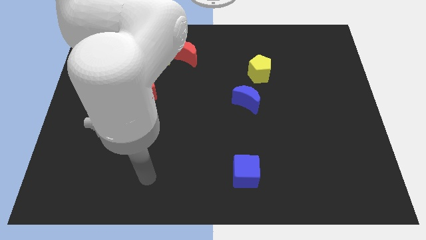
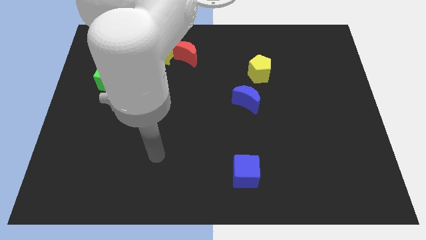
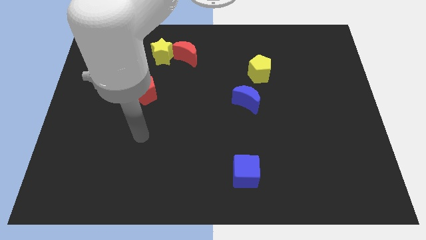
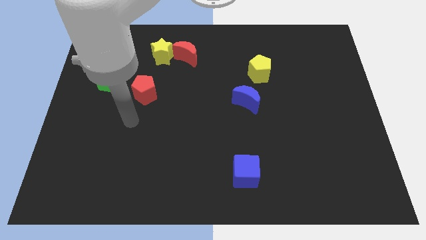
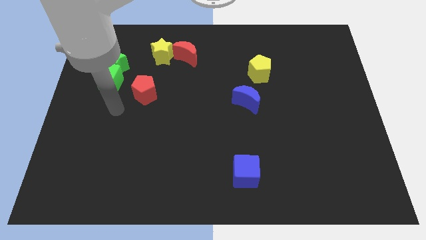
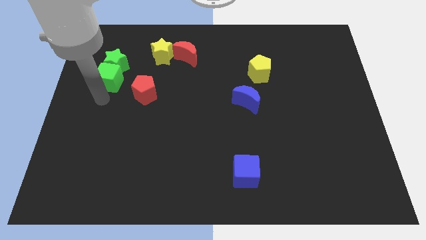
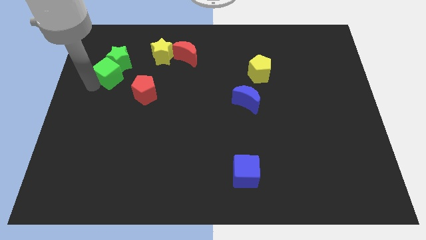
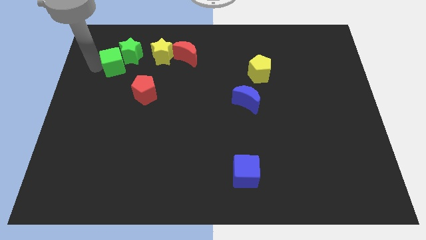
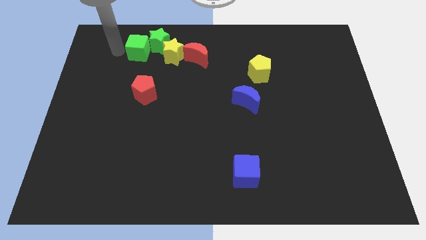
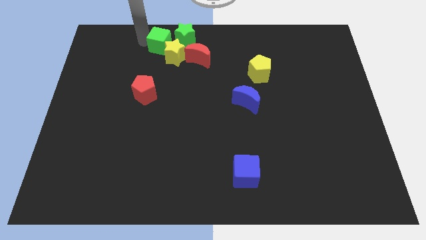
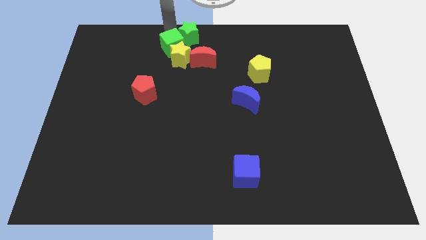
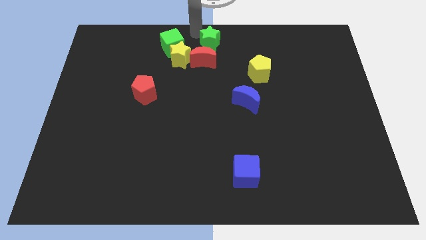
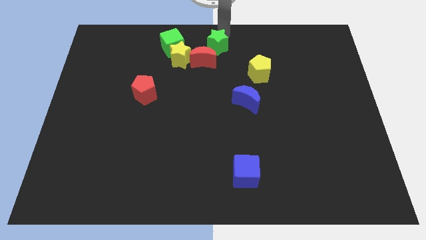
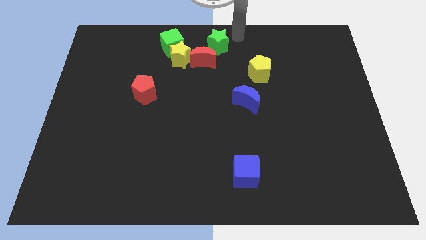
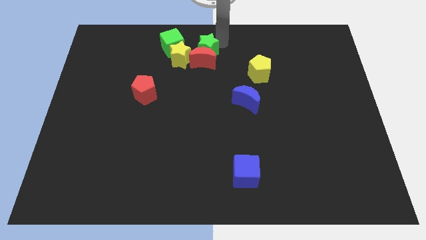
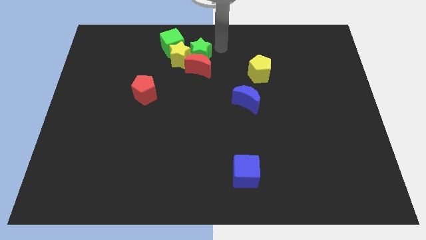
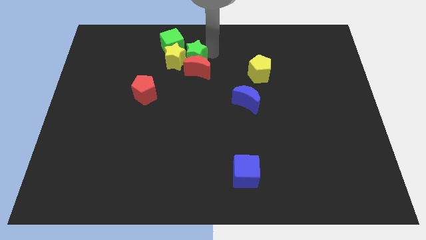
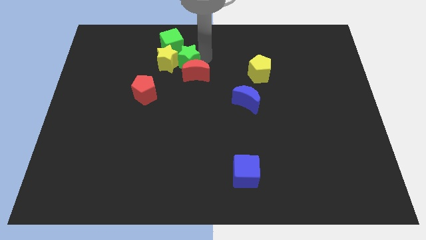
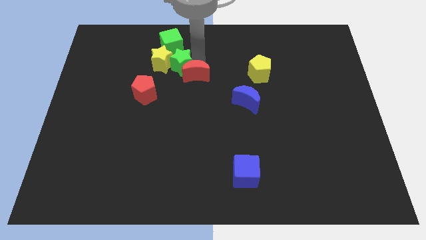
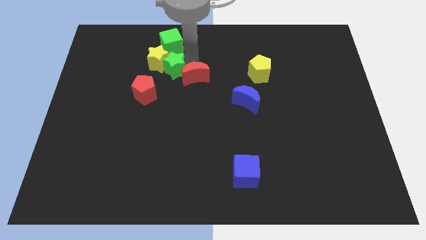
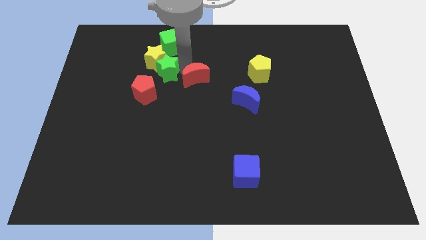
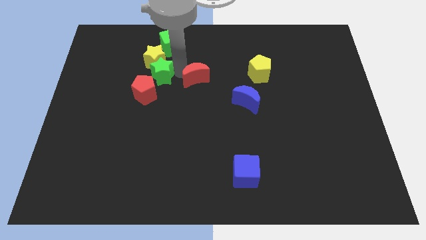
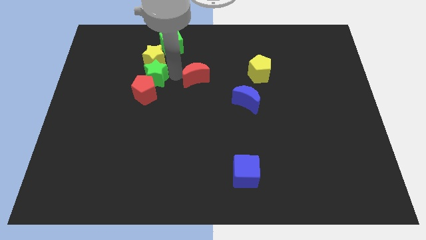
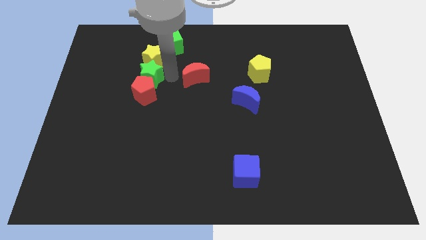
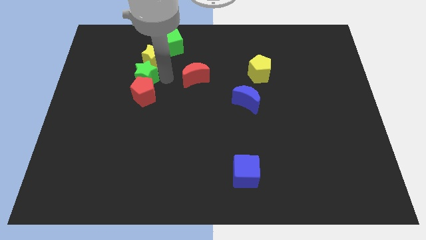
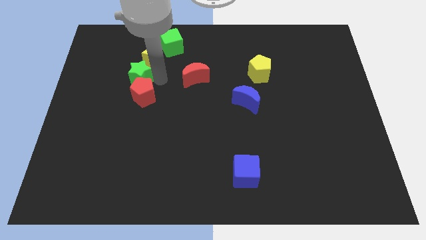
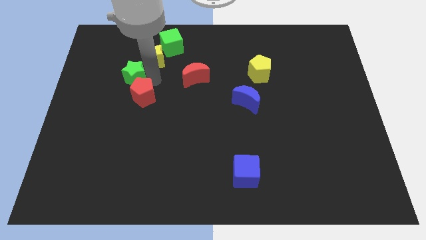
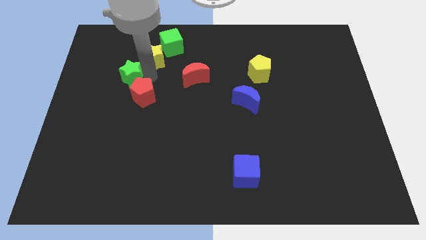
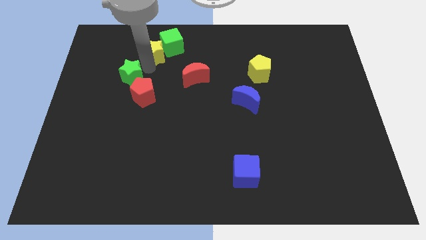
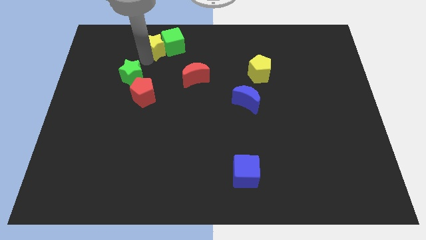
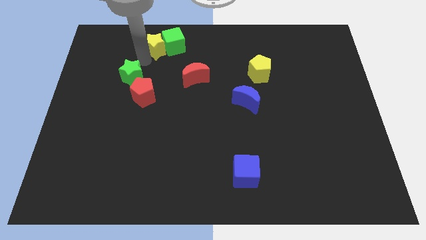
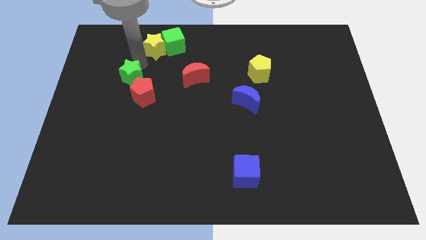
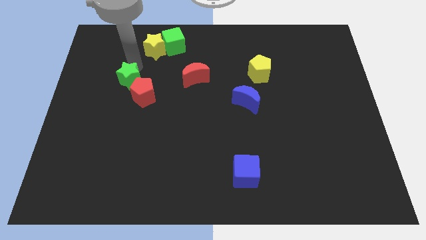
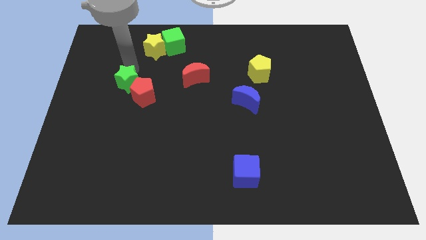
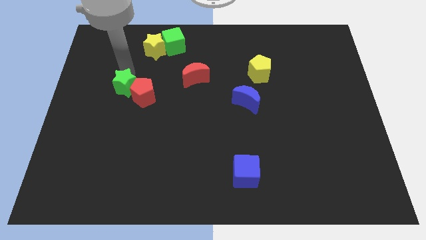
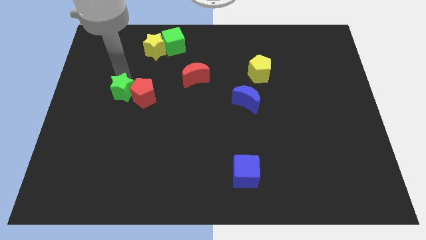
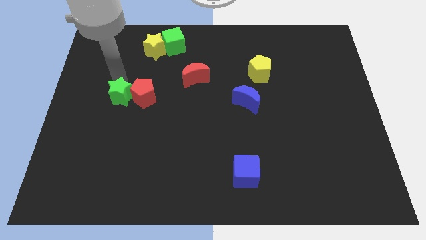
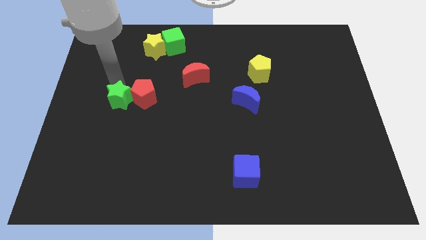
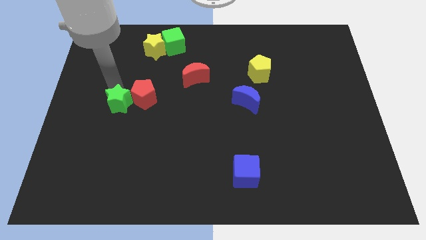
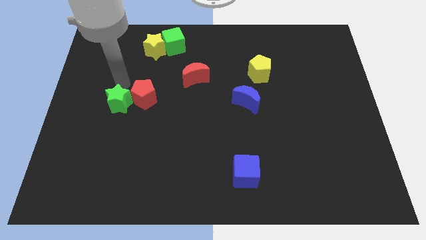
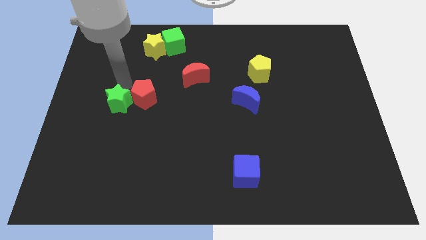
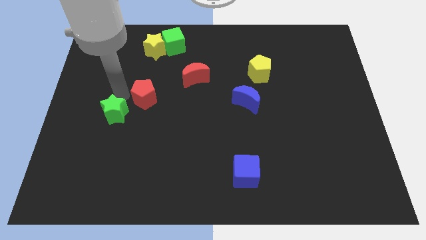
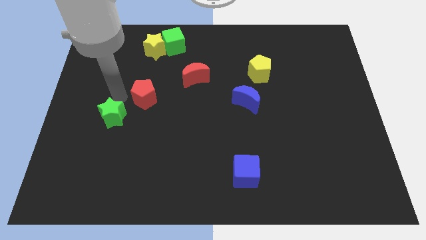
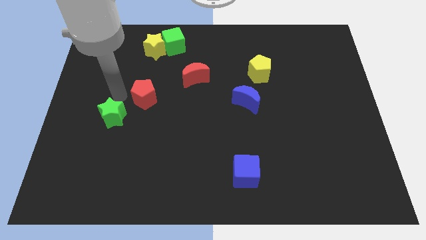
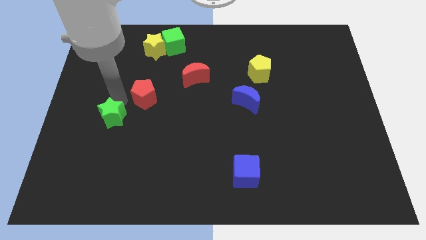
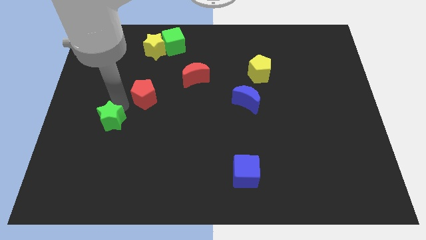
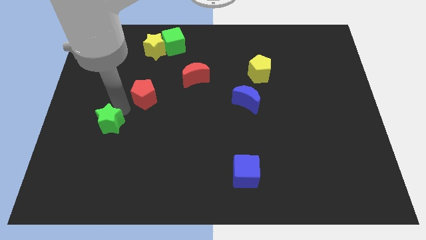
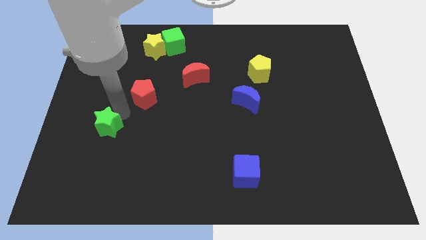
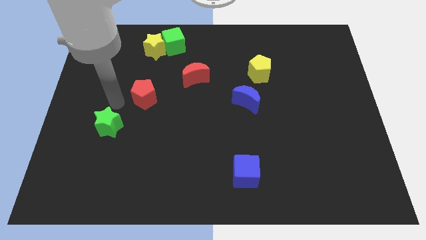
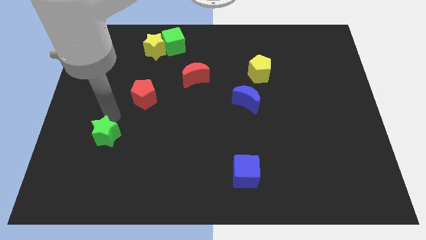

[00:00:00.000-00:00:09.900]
push the green star downwards

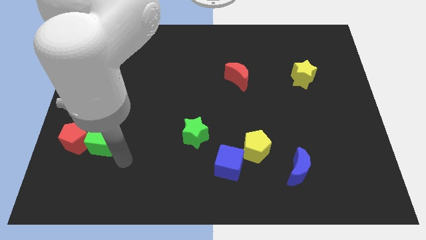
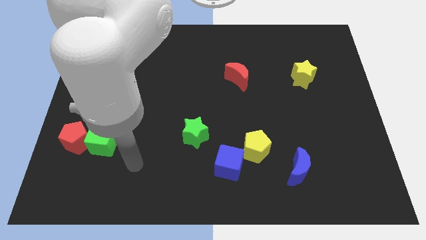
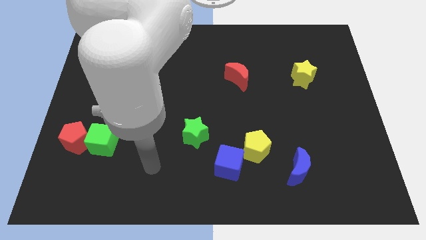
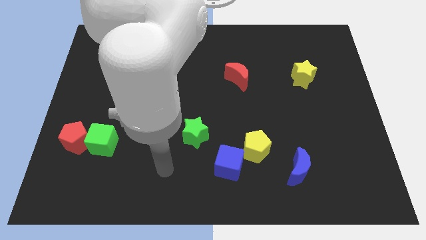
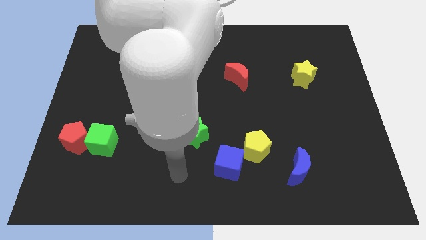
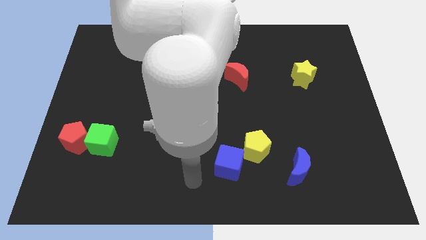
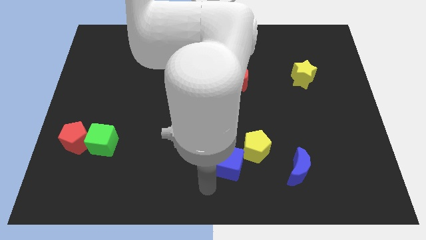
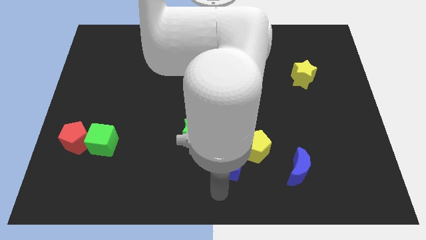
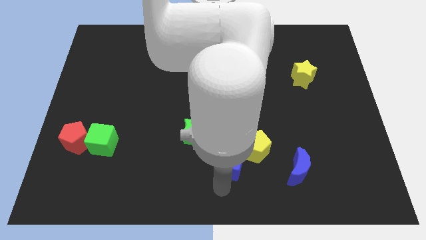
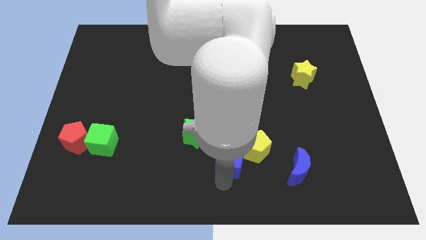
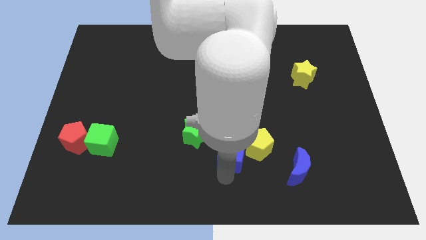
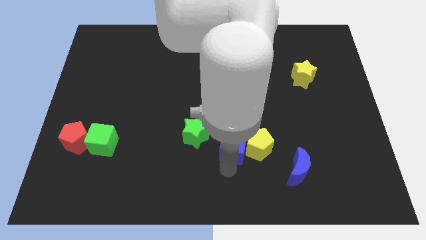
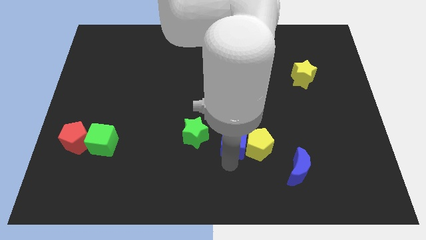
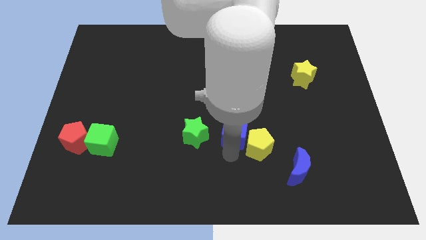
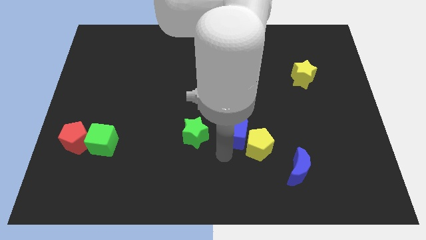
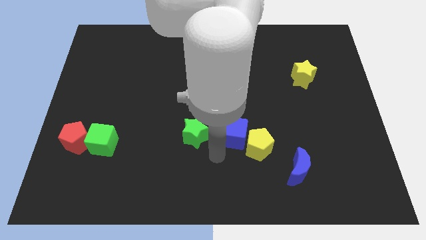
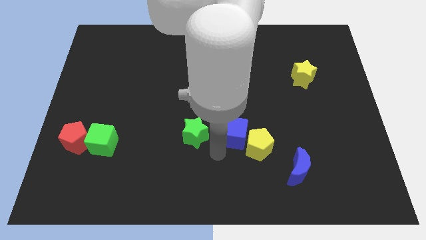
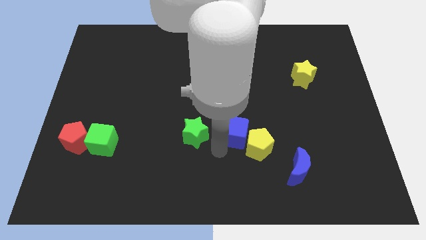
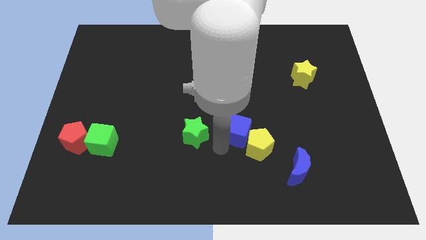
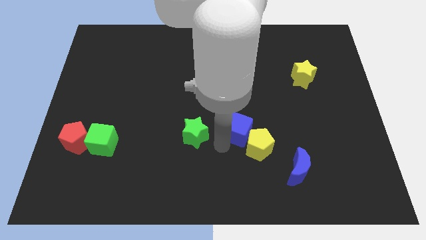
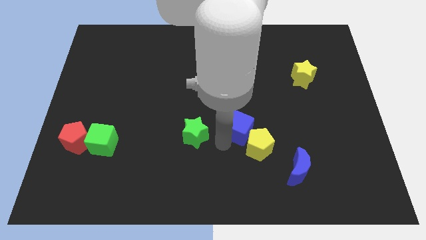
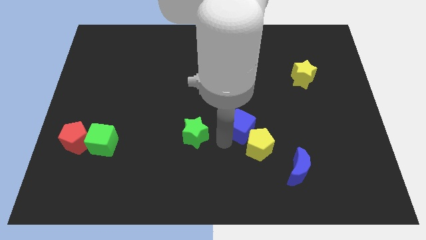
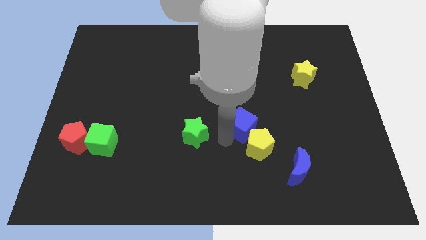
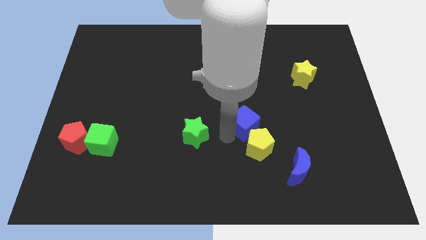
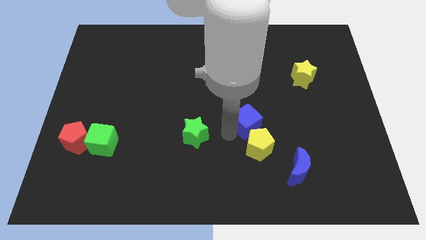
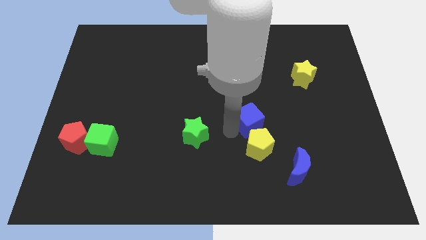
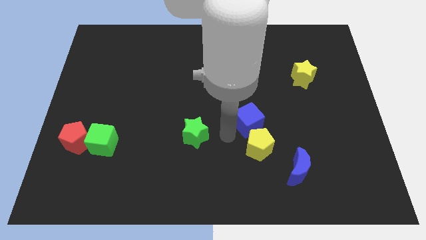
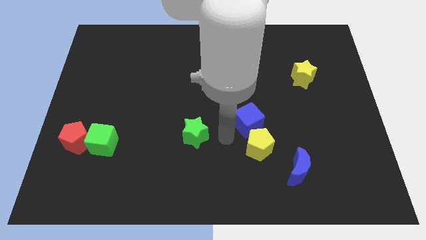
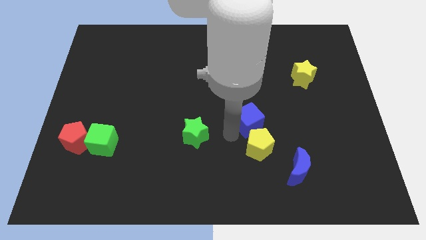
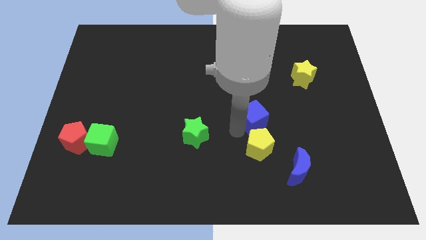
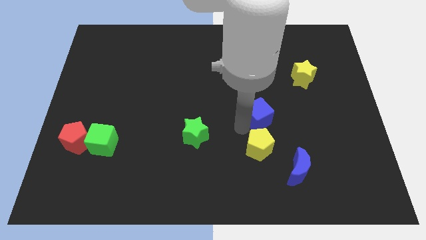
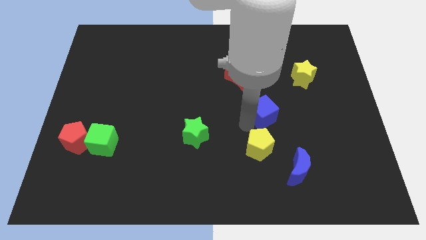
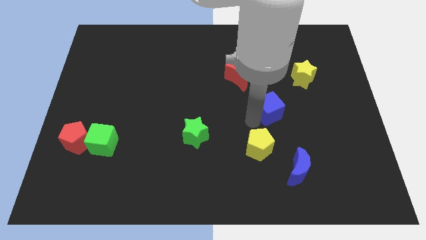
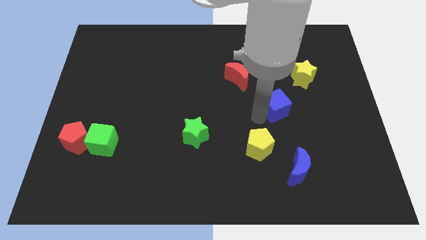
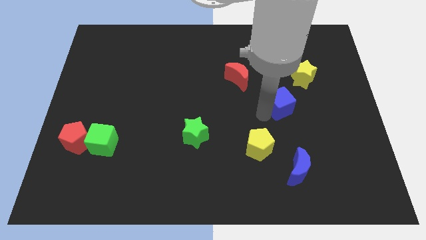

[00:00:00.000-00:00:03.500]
slide the blue cube up and then right
